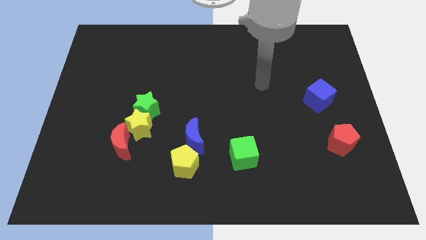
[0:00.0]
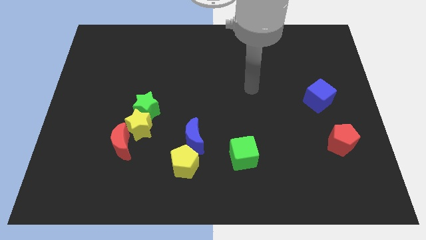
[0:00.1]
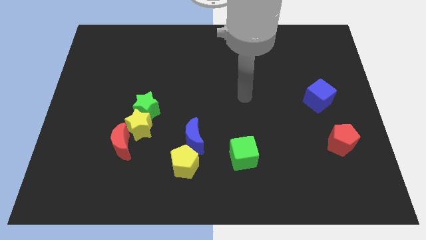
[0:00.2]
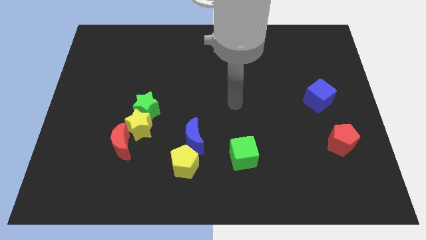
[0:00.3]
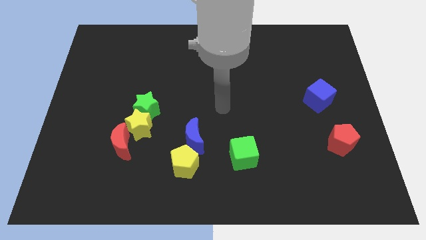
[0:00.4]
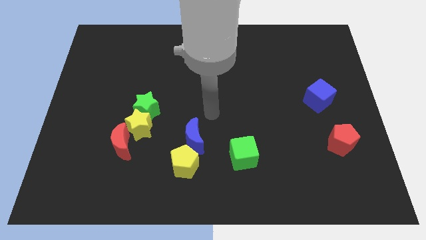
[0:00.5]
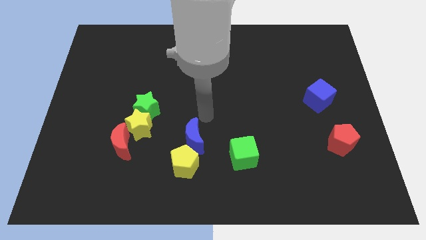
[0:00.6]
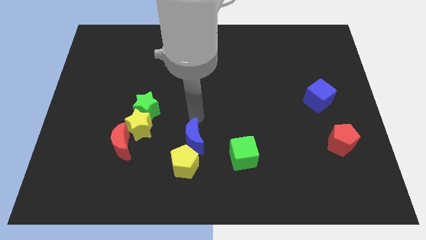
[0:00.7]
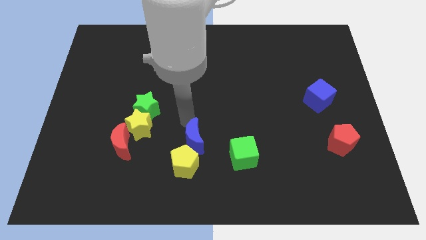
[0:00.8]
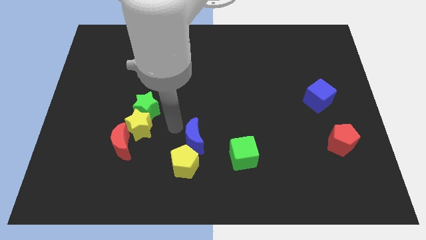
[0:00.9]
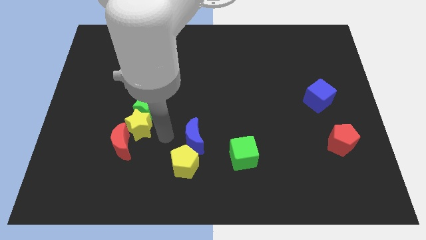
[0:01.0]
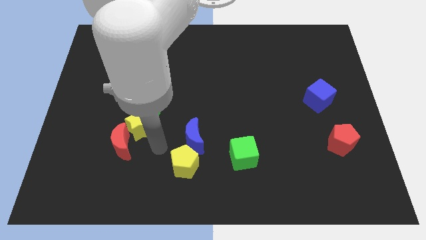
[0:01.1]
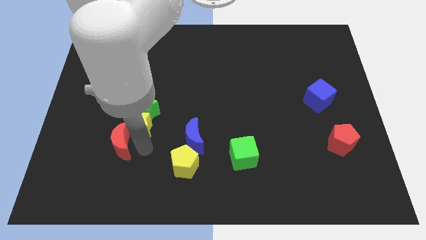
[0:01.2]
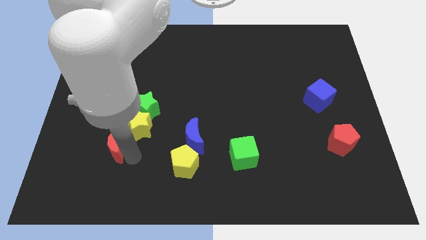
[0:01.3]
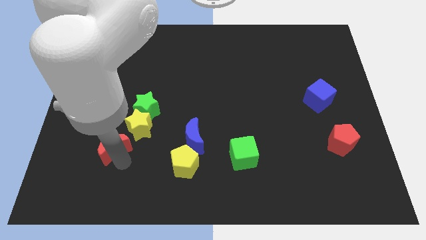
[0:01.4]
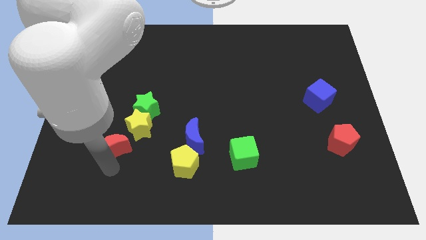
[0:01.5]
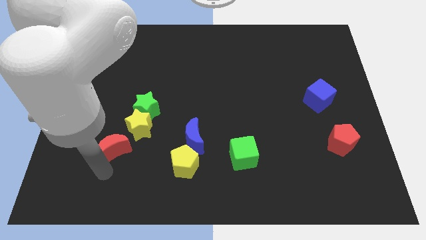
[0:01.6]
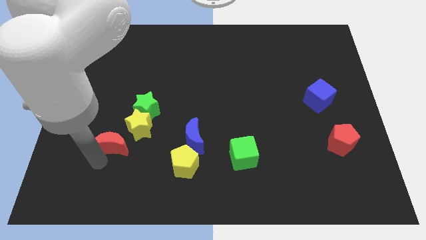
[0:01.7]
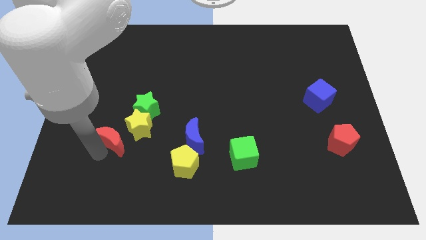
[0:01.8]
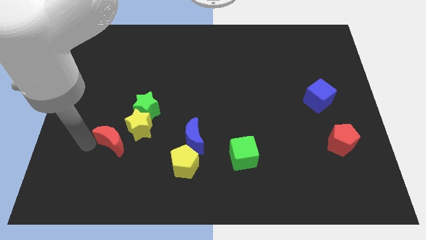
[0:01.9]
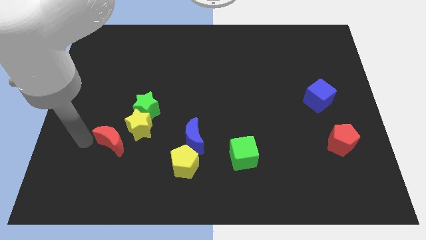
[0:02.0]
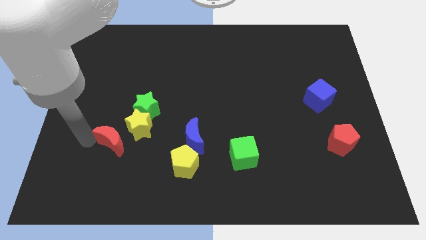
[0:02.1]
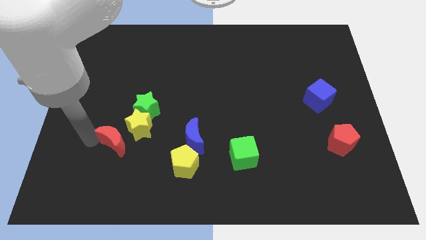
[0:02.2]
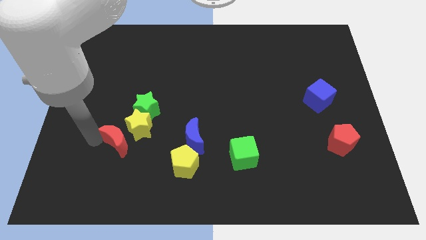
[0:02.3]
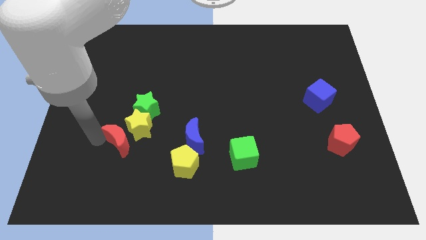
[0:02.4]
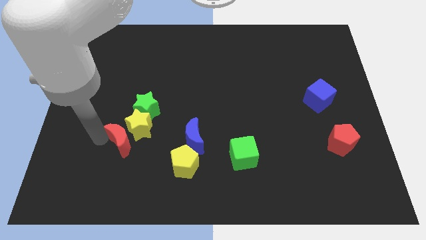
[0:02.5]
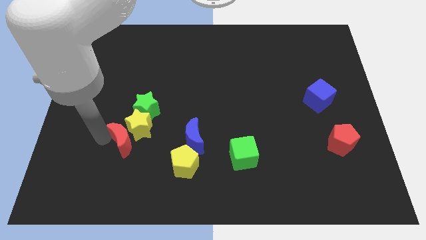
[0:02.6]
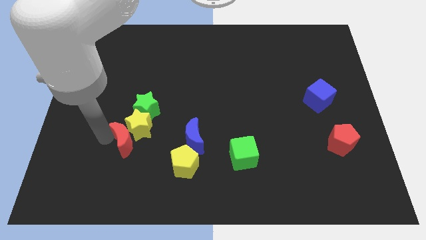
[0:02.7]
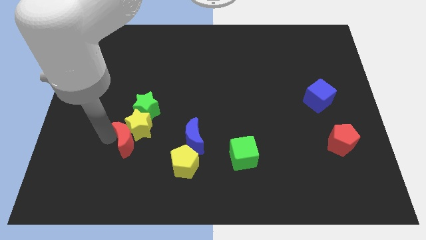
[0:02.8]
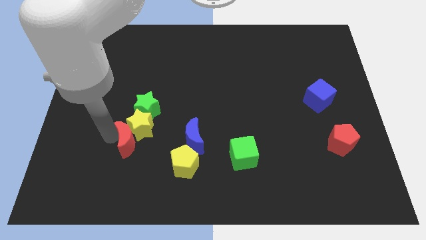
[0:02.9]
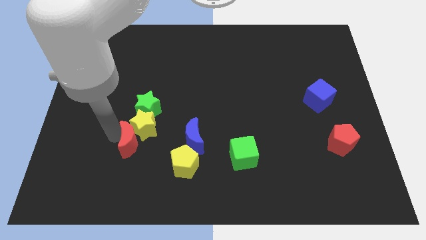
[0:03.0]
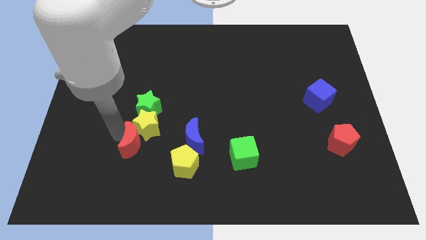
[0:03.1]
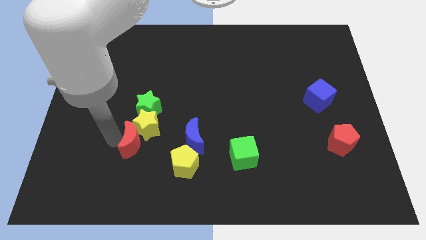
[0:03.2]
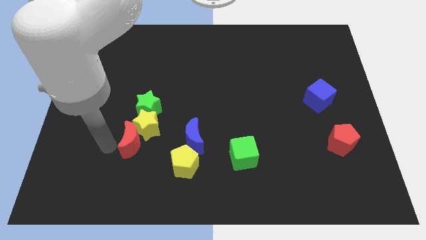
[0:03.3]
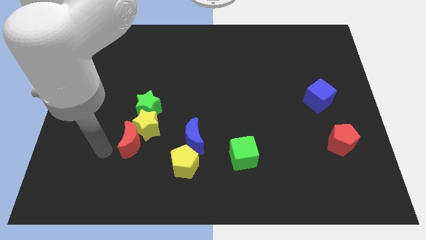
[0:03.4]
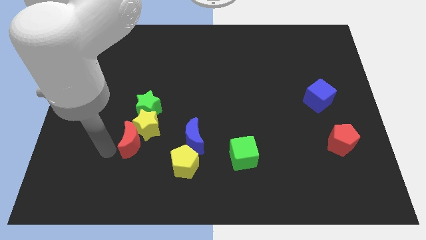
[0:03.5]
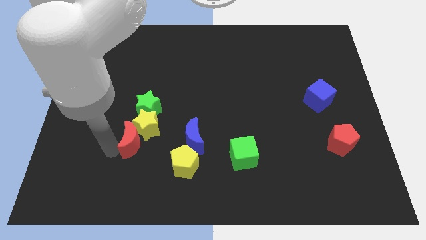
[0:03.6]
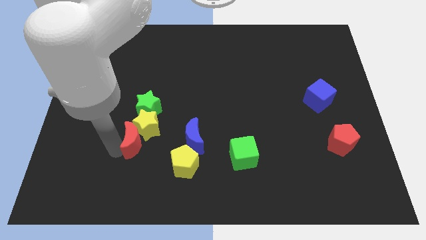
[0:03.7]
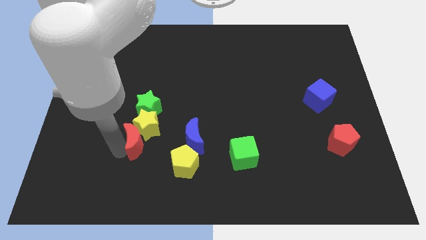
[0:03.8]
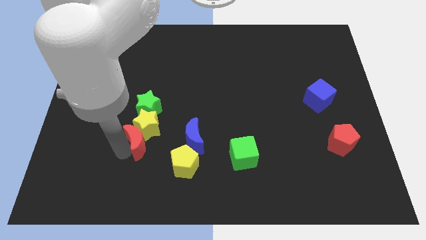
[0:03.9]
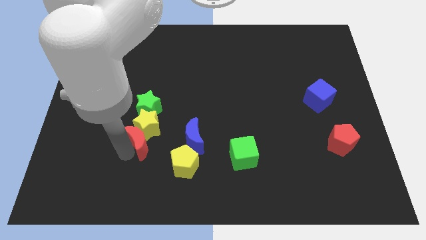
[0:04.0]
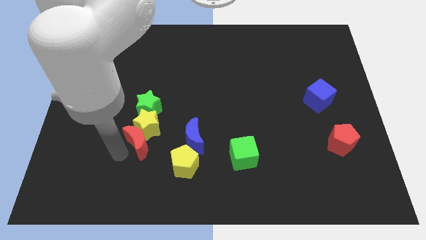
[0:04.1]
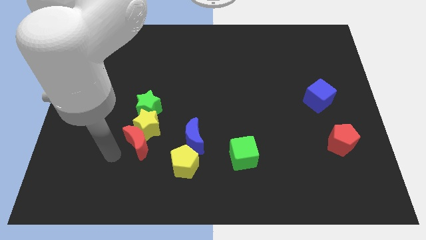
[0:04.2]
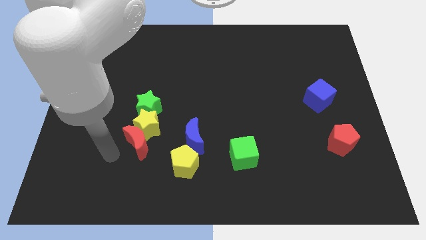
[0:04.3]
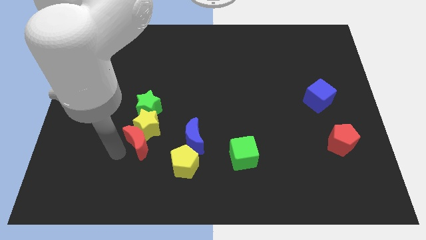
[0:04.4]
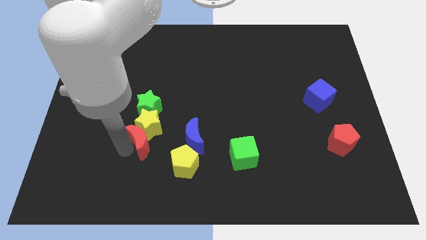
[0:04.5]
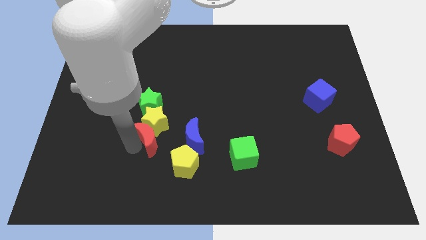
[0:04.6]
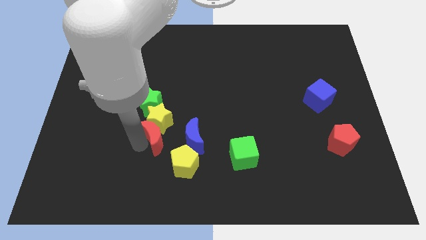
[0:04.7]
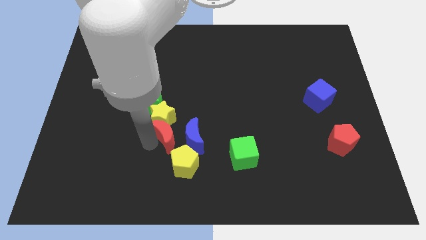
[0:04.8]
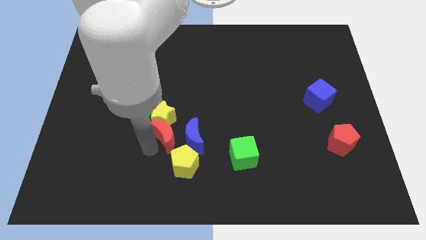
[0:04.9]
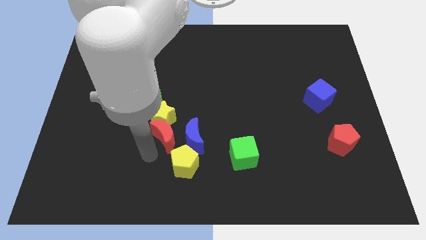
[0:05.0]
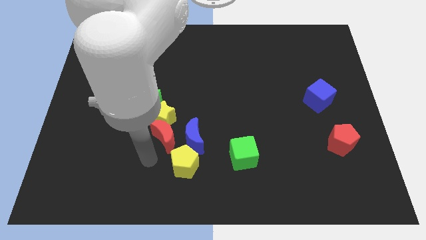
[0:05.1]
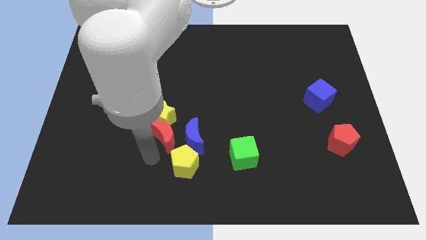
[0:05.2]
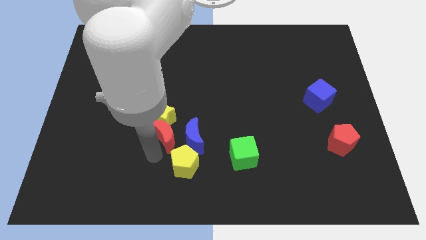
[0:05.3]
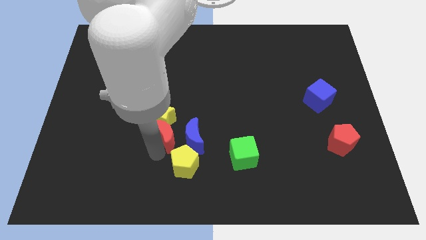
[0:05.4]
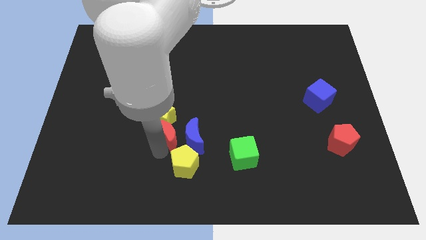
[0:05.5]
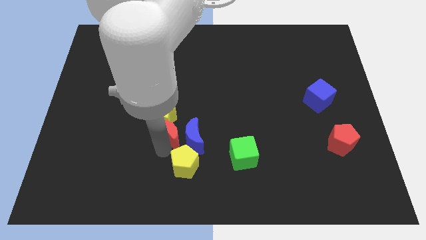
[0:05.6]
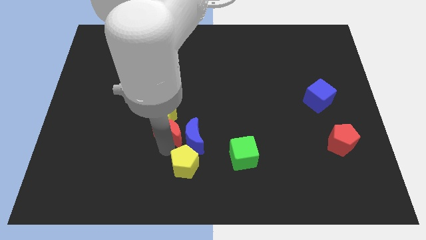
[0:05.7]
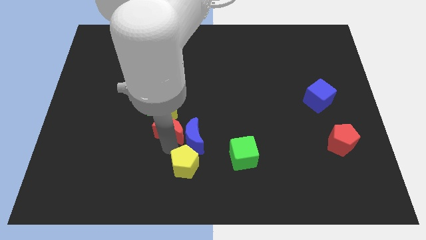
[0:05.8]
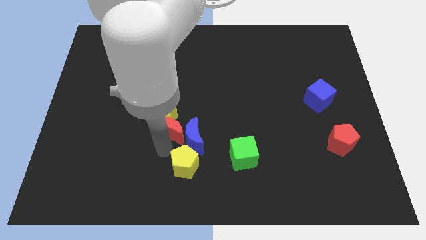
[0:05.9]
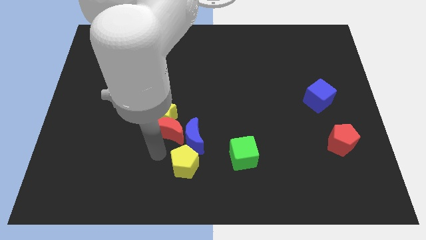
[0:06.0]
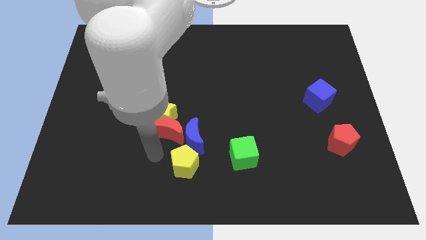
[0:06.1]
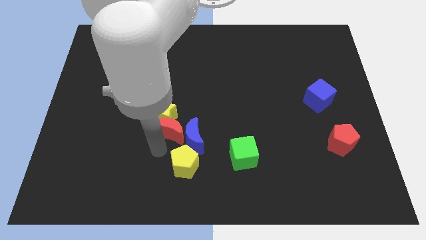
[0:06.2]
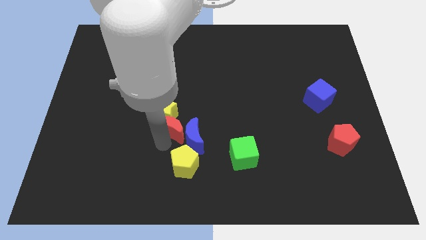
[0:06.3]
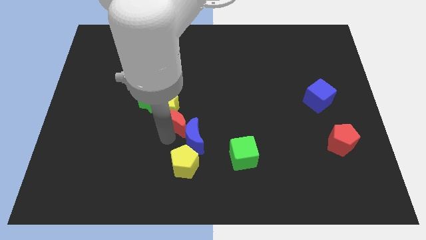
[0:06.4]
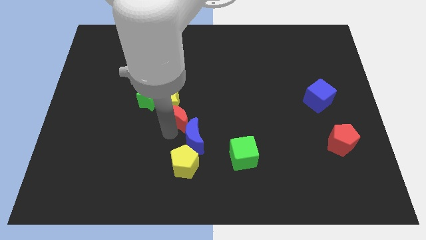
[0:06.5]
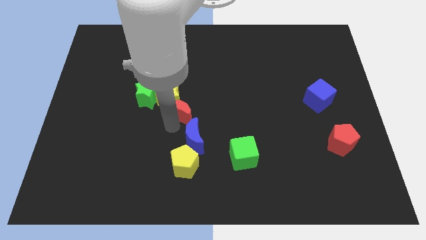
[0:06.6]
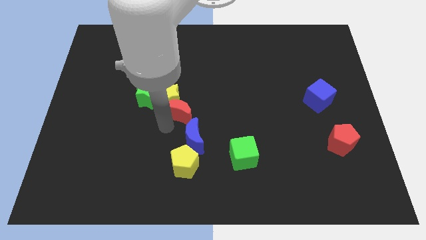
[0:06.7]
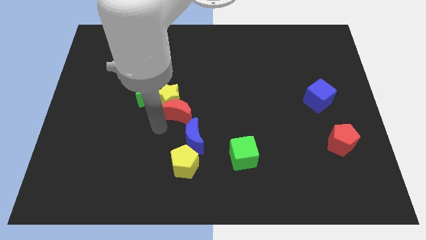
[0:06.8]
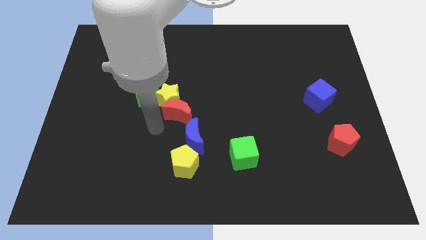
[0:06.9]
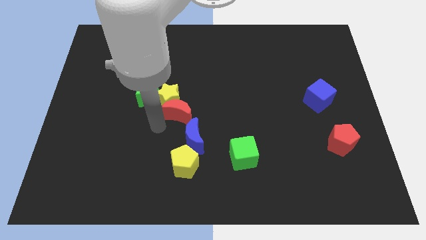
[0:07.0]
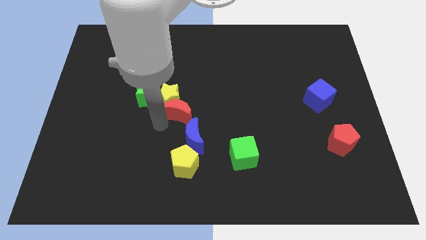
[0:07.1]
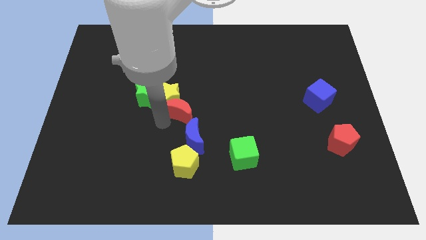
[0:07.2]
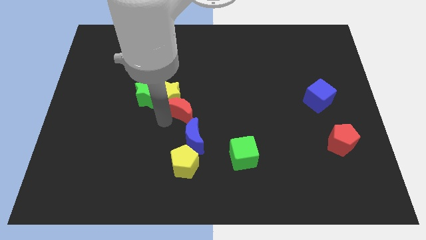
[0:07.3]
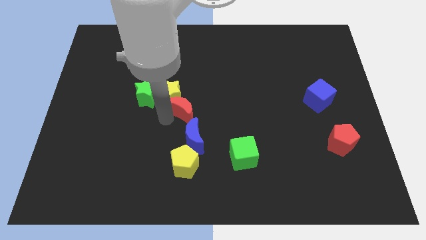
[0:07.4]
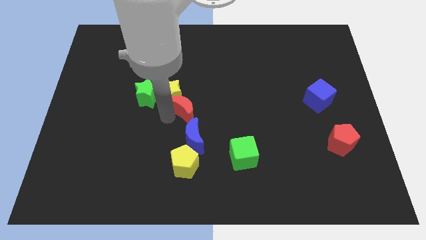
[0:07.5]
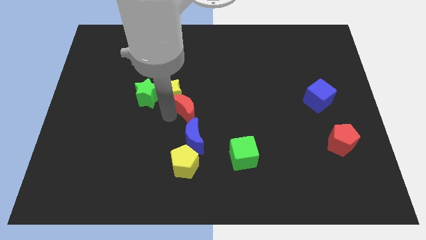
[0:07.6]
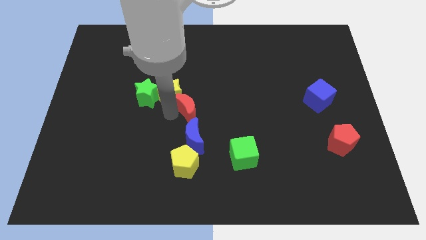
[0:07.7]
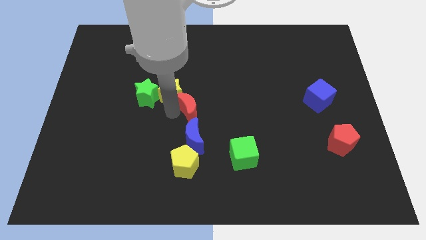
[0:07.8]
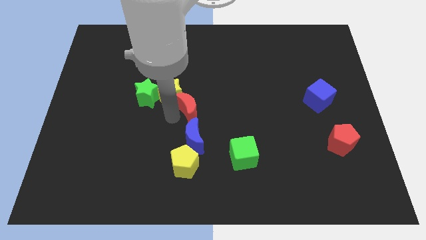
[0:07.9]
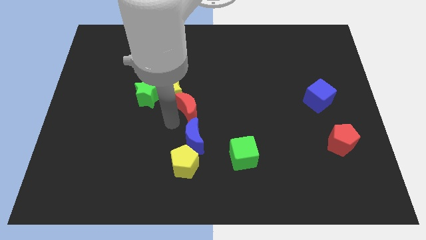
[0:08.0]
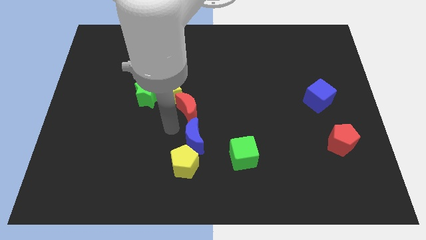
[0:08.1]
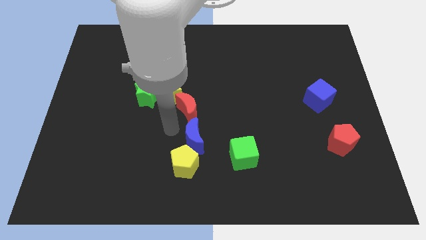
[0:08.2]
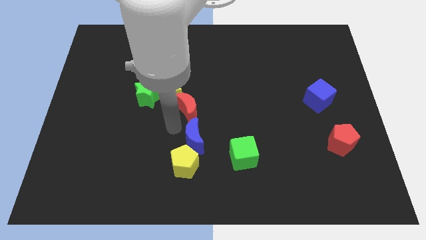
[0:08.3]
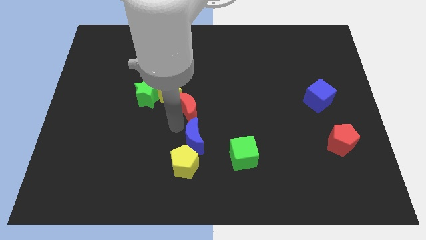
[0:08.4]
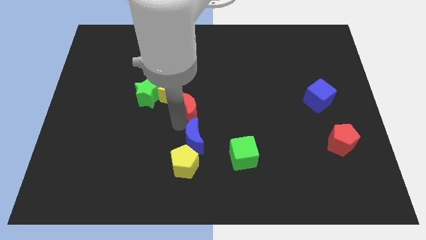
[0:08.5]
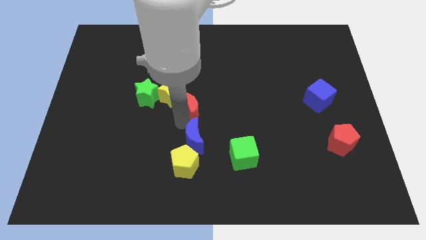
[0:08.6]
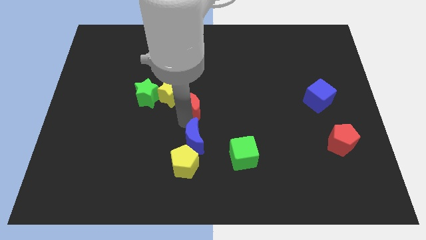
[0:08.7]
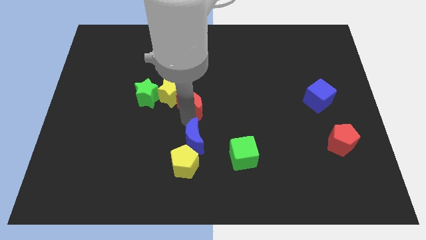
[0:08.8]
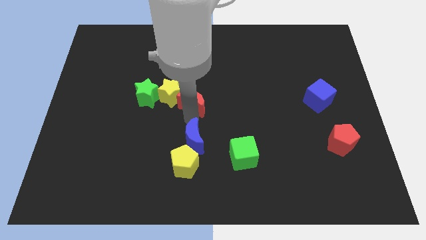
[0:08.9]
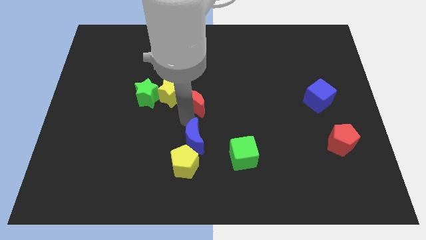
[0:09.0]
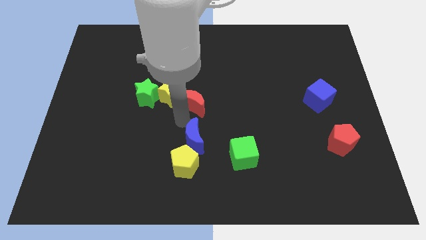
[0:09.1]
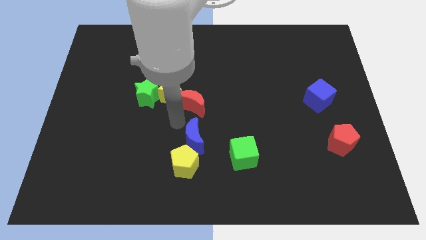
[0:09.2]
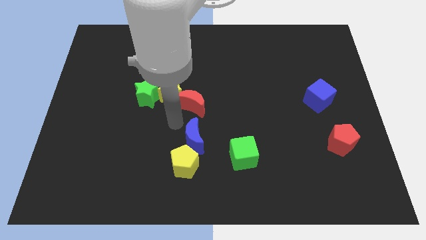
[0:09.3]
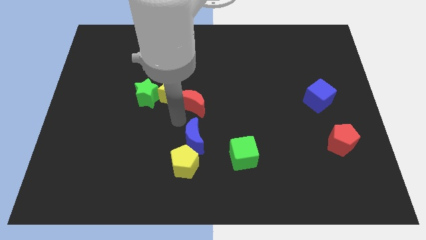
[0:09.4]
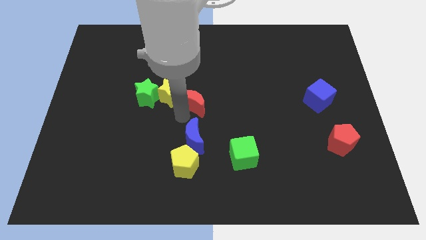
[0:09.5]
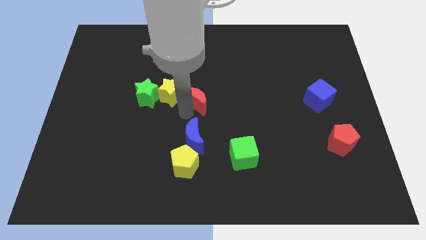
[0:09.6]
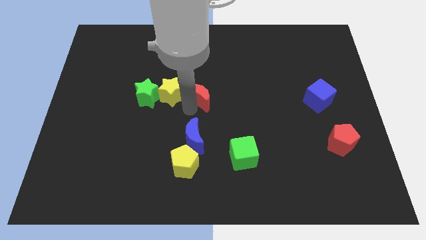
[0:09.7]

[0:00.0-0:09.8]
push the red moon upwards and to the right
